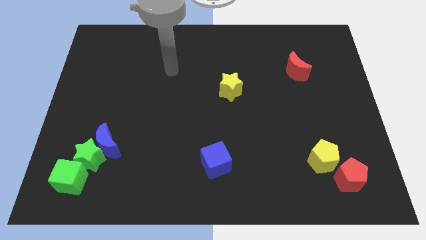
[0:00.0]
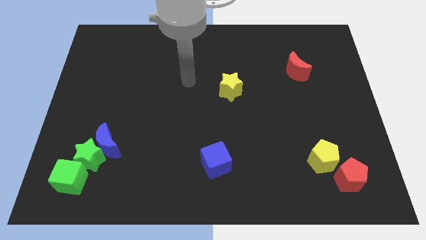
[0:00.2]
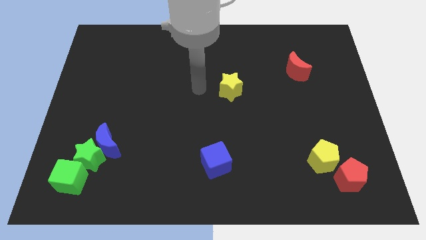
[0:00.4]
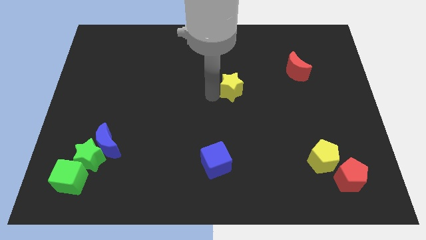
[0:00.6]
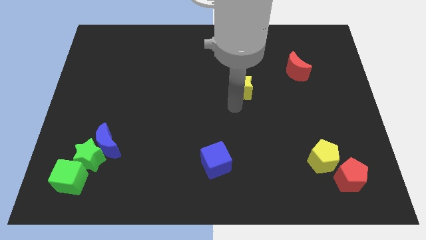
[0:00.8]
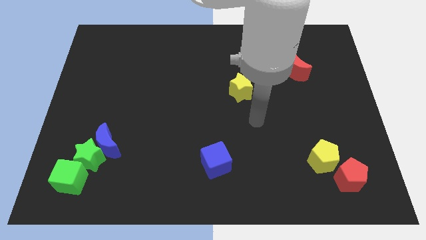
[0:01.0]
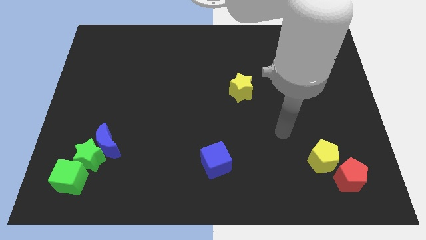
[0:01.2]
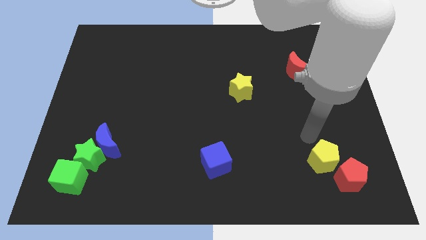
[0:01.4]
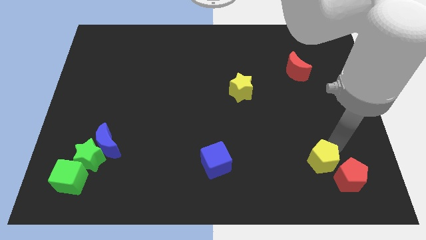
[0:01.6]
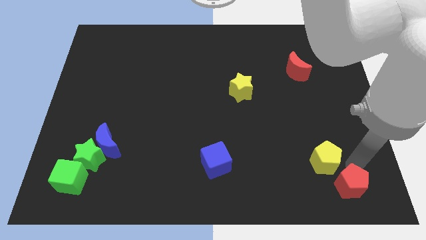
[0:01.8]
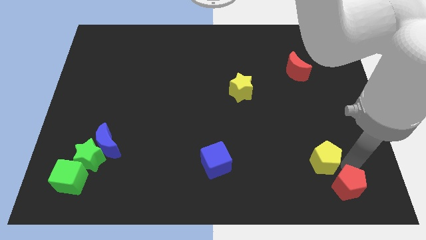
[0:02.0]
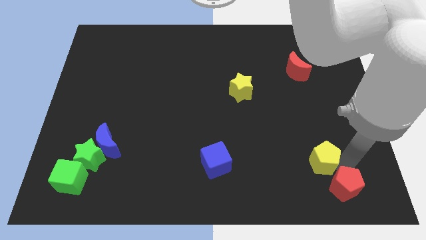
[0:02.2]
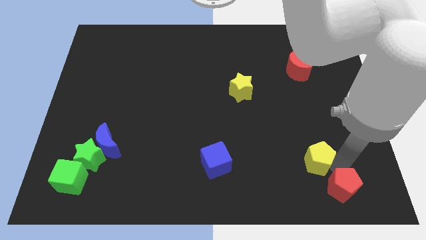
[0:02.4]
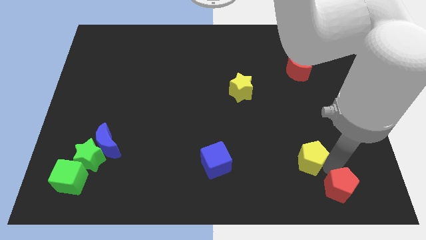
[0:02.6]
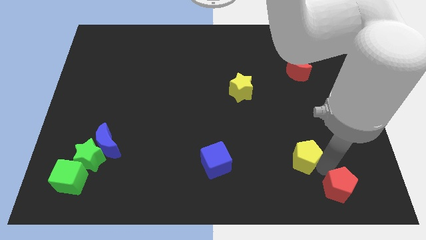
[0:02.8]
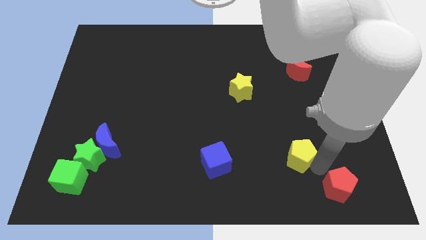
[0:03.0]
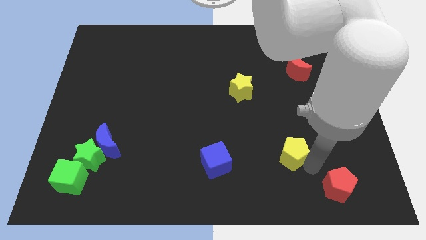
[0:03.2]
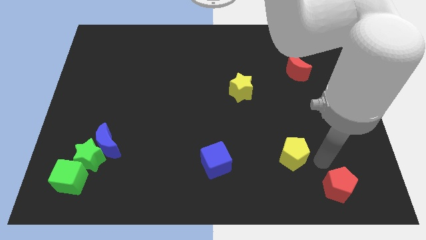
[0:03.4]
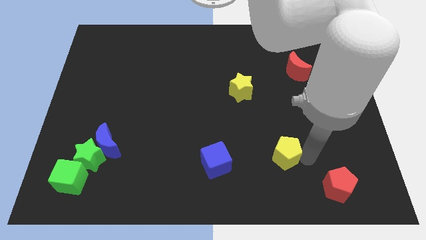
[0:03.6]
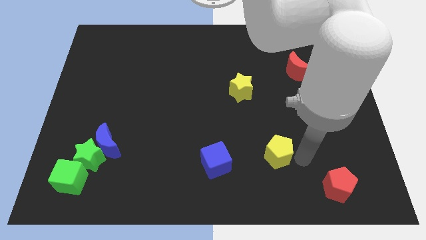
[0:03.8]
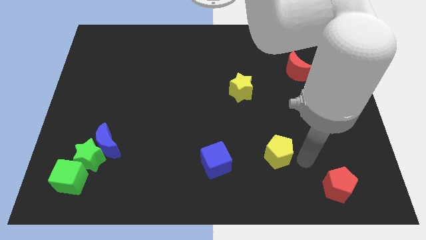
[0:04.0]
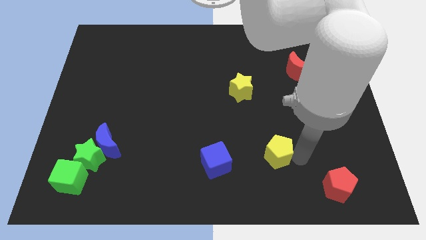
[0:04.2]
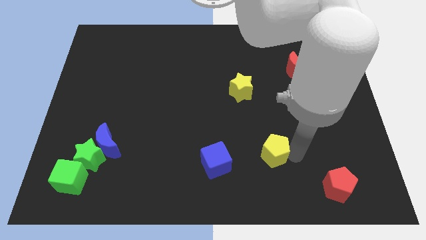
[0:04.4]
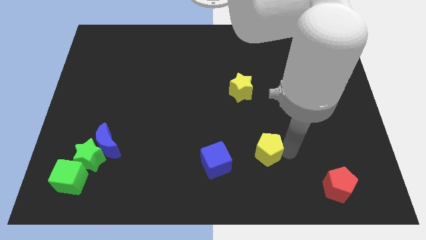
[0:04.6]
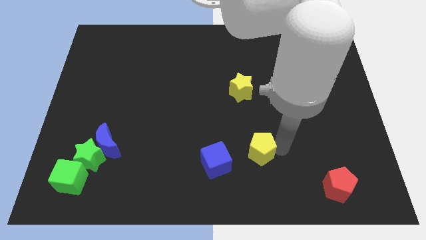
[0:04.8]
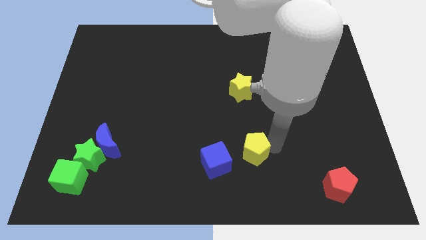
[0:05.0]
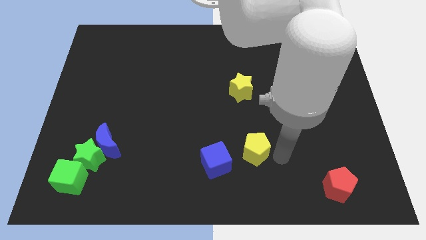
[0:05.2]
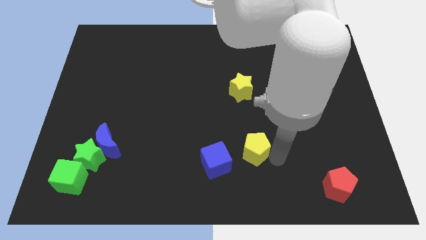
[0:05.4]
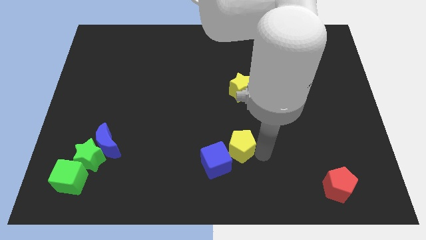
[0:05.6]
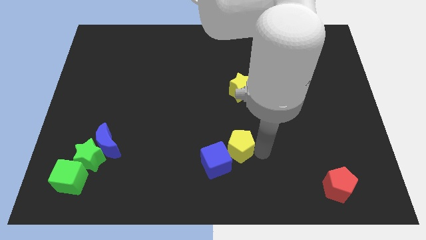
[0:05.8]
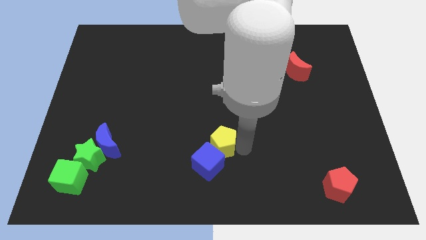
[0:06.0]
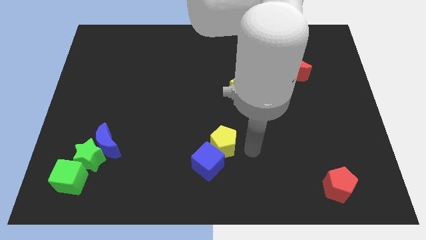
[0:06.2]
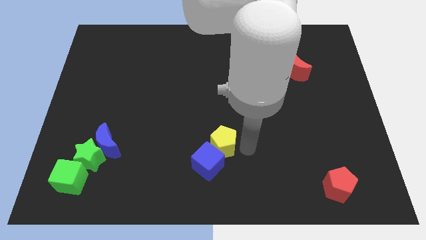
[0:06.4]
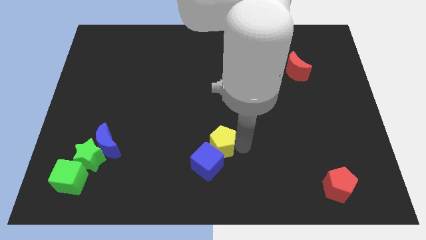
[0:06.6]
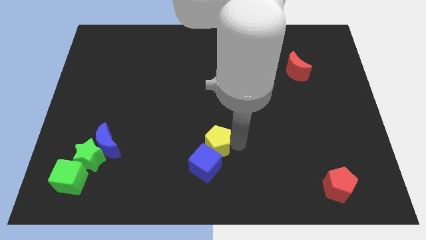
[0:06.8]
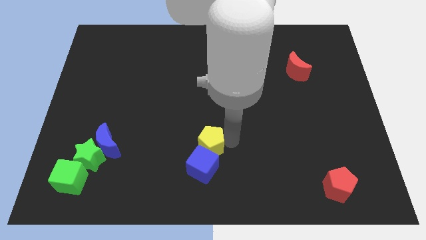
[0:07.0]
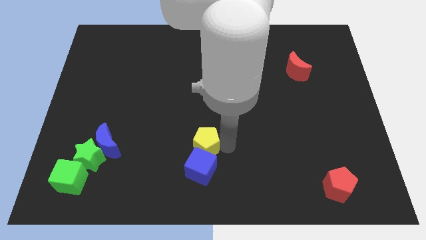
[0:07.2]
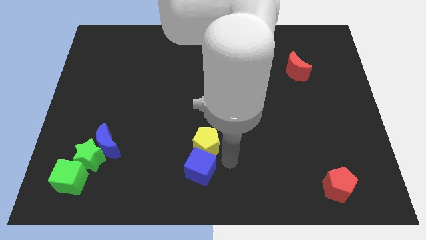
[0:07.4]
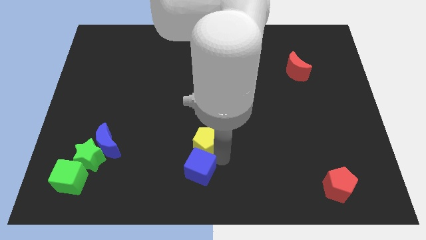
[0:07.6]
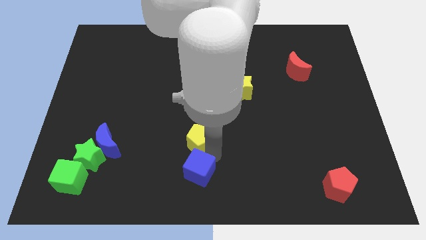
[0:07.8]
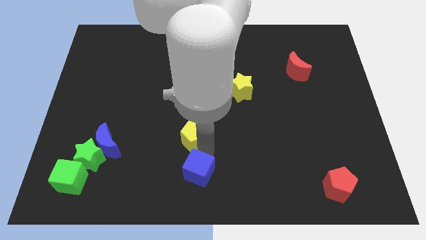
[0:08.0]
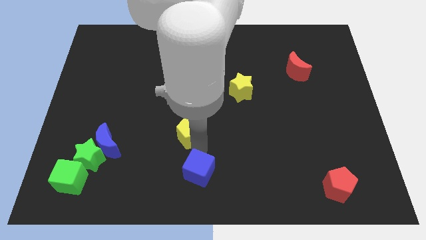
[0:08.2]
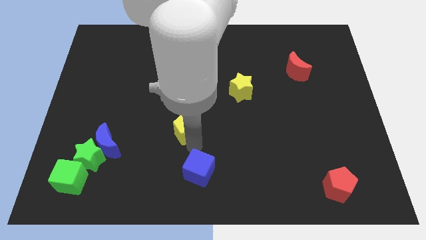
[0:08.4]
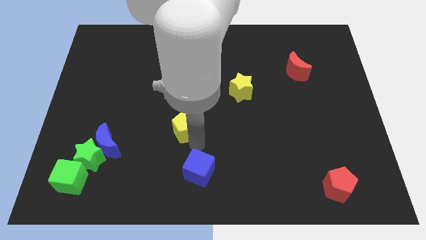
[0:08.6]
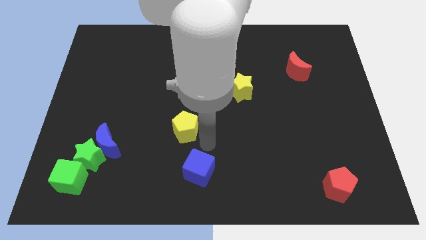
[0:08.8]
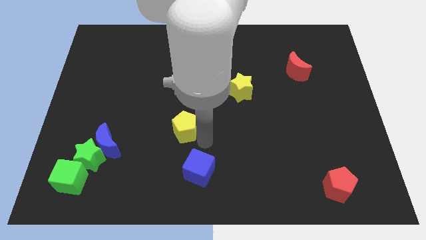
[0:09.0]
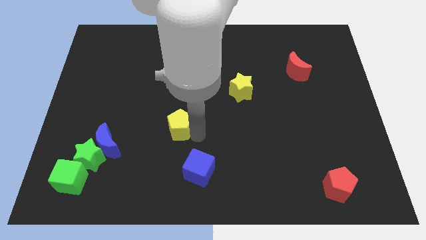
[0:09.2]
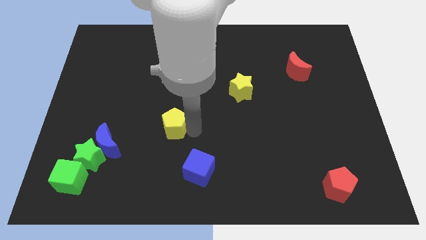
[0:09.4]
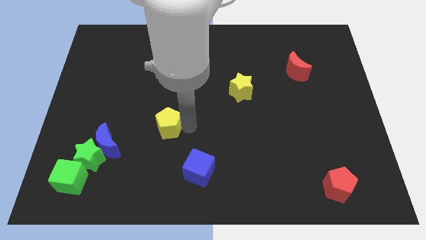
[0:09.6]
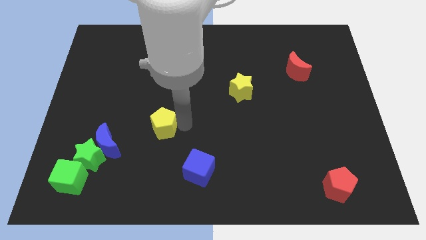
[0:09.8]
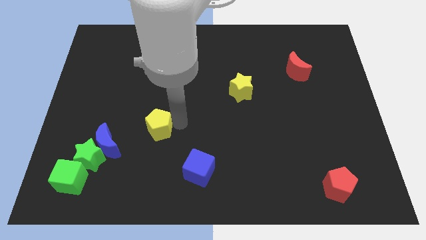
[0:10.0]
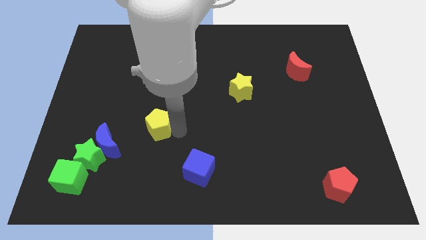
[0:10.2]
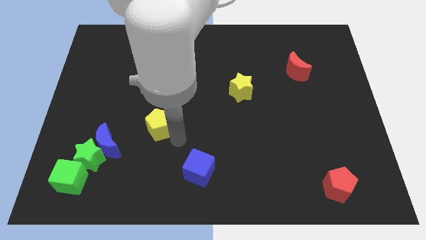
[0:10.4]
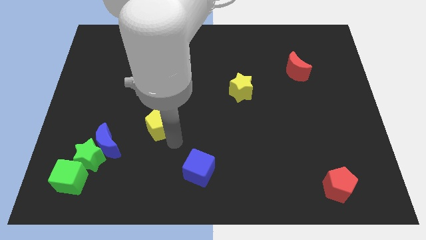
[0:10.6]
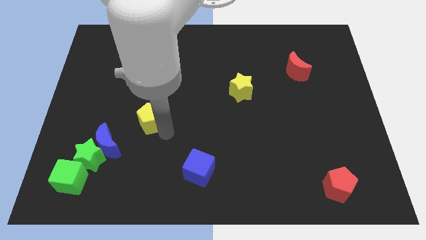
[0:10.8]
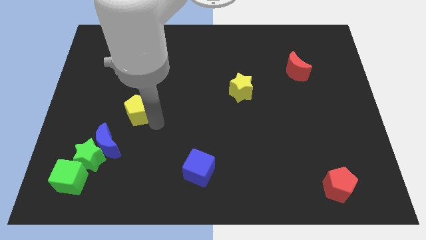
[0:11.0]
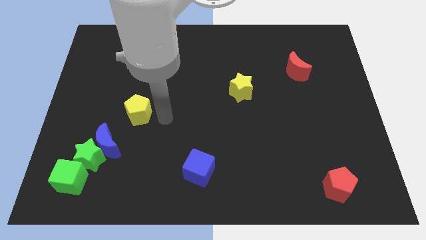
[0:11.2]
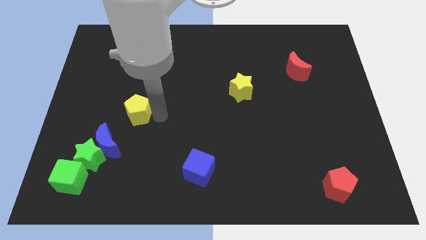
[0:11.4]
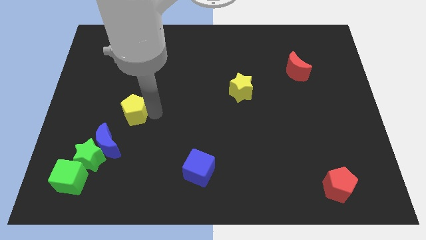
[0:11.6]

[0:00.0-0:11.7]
slide the yellow pentagon to the top of the blue moon
